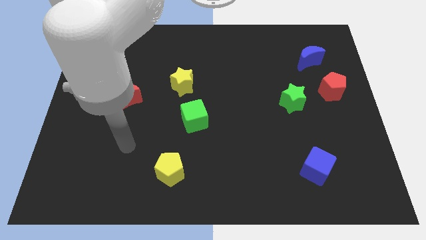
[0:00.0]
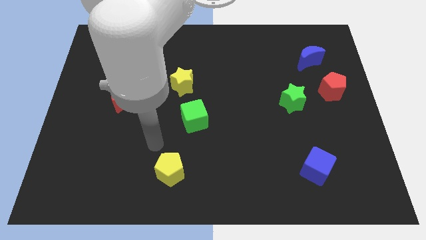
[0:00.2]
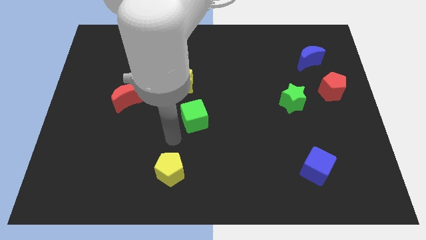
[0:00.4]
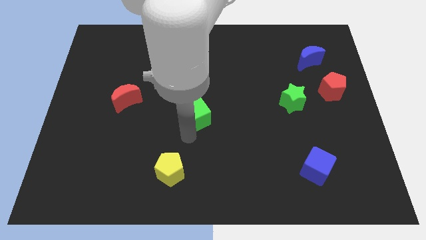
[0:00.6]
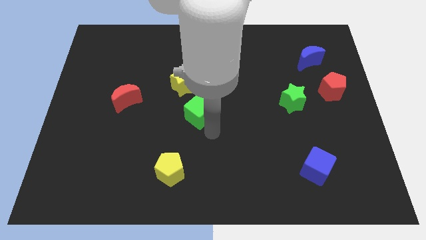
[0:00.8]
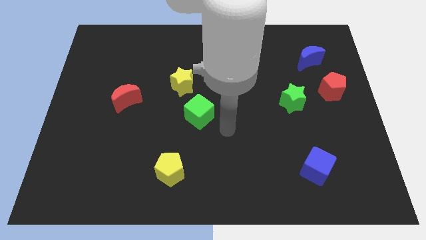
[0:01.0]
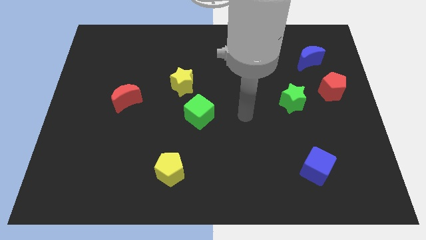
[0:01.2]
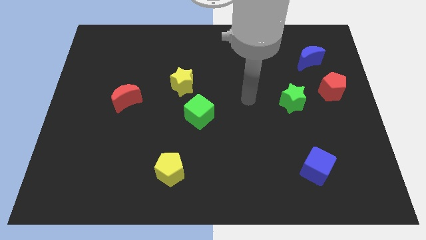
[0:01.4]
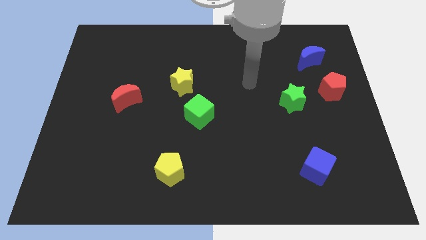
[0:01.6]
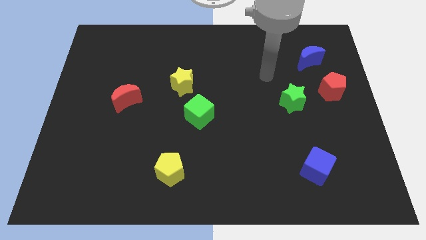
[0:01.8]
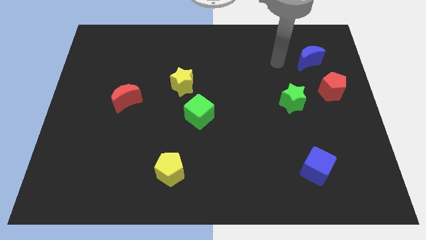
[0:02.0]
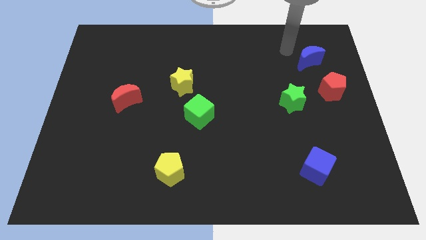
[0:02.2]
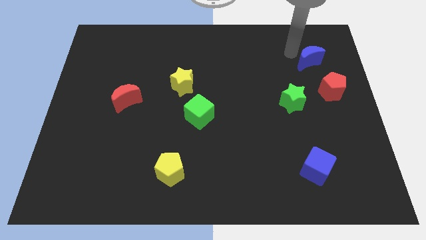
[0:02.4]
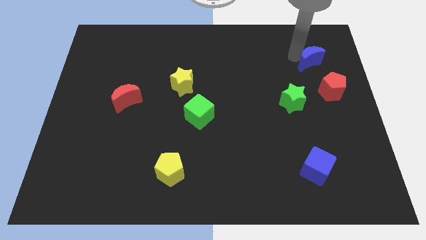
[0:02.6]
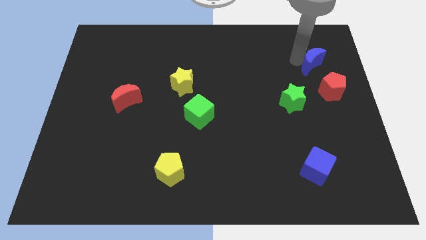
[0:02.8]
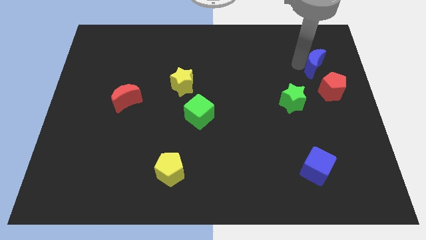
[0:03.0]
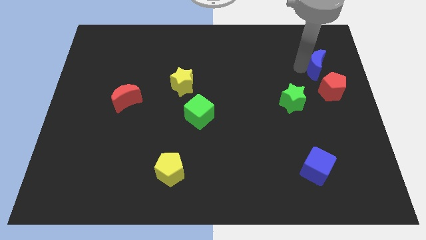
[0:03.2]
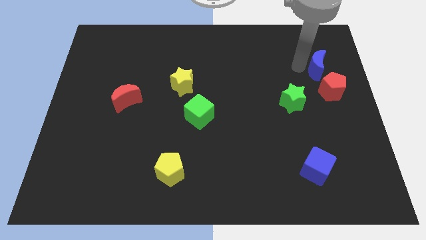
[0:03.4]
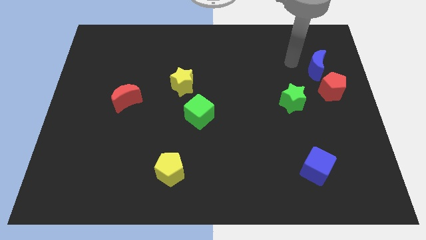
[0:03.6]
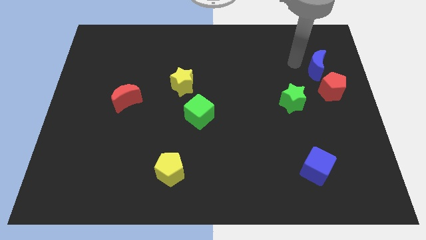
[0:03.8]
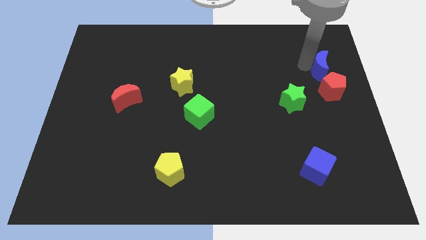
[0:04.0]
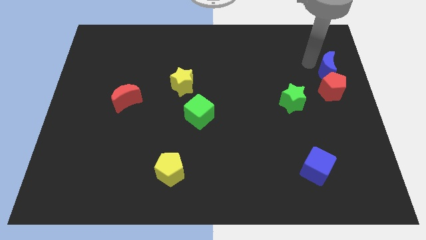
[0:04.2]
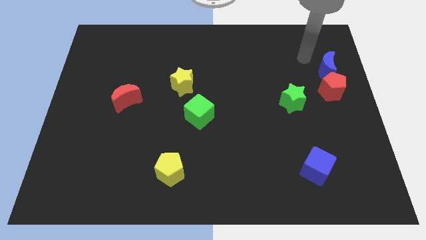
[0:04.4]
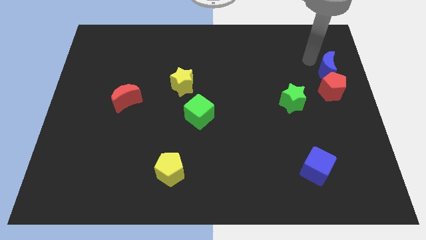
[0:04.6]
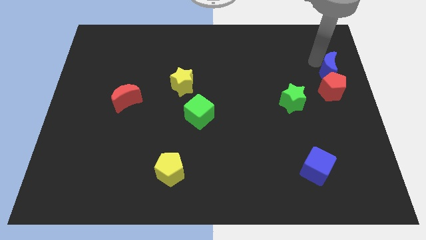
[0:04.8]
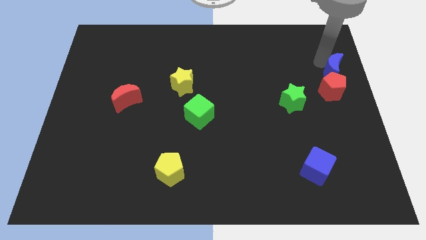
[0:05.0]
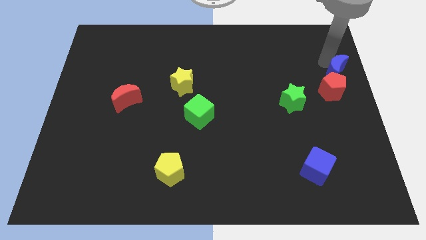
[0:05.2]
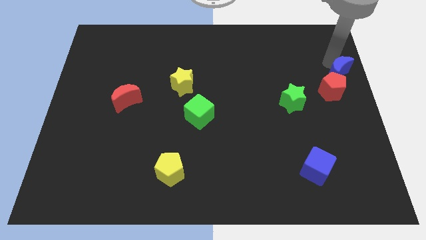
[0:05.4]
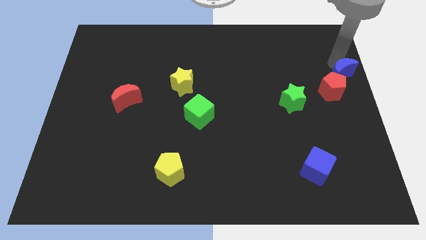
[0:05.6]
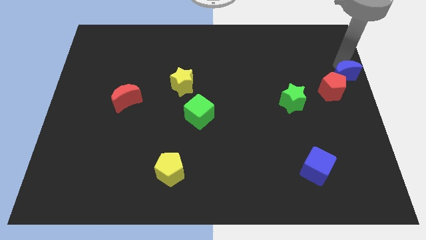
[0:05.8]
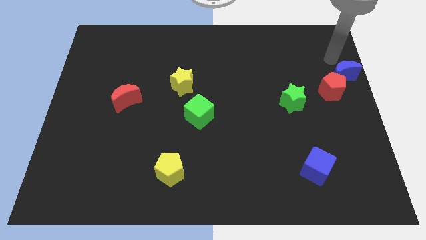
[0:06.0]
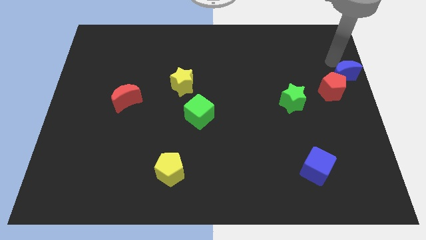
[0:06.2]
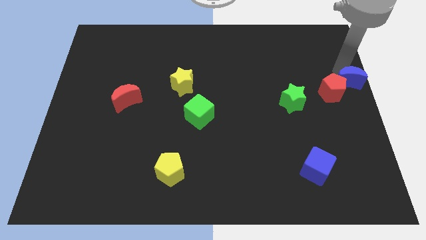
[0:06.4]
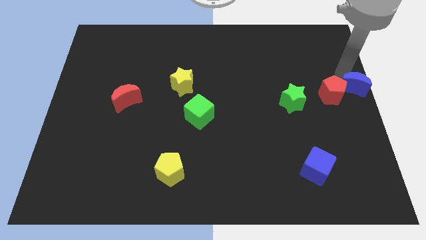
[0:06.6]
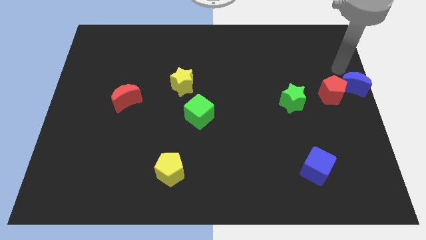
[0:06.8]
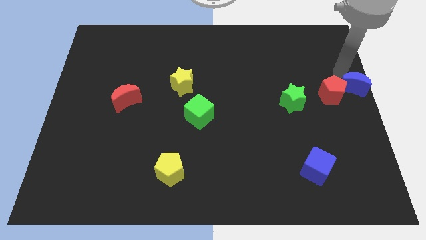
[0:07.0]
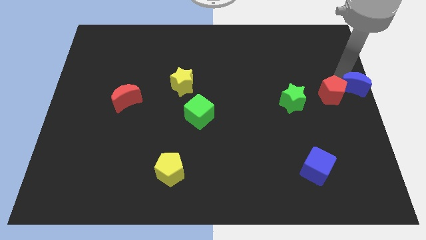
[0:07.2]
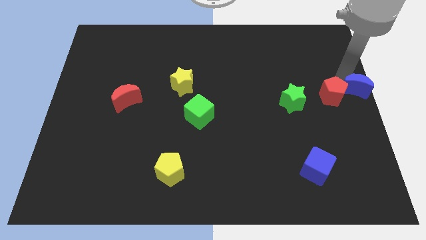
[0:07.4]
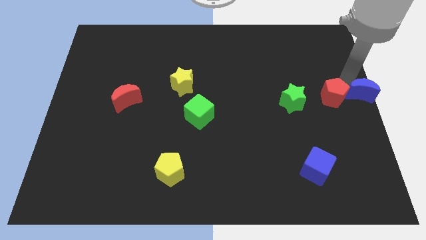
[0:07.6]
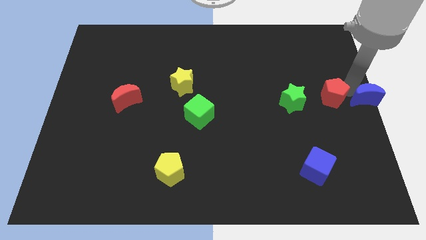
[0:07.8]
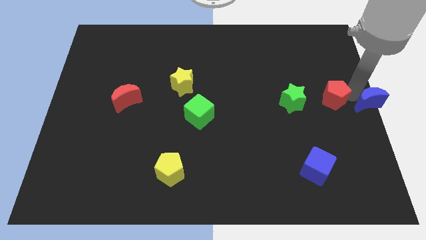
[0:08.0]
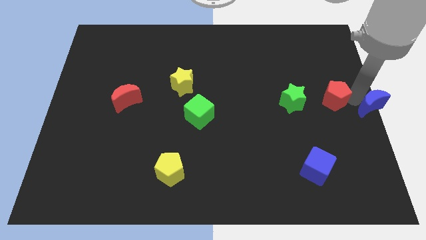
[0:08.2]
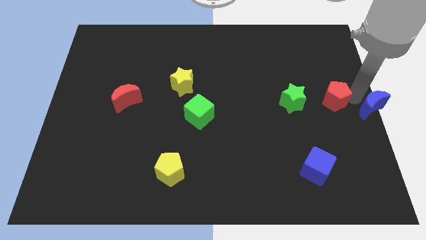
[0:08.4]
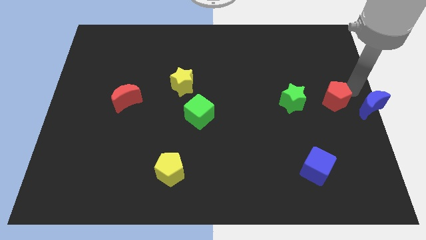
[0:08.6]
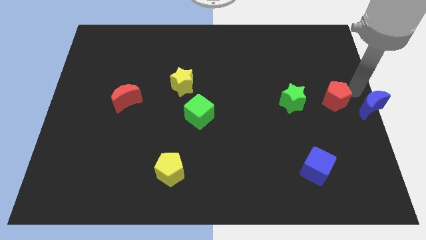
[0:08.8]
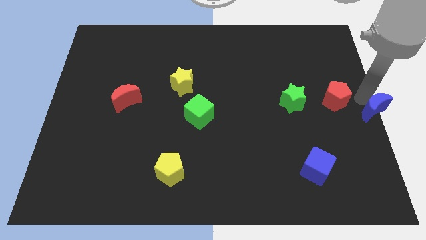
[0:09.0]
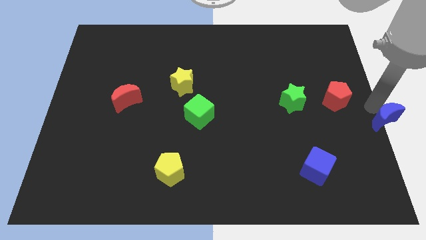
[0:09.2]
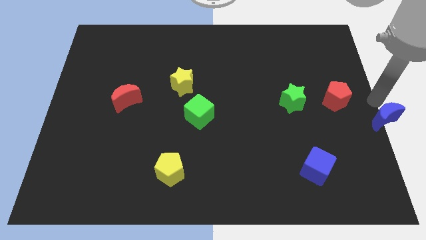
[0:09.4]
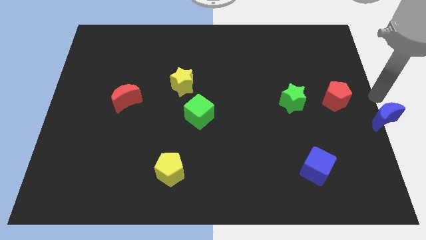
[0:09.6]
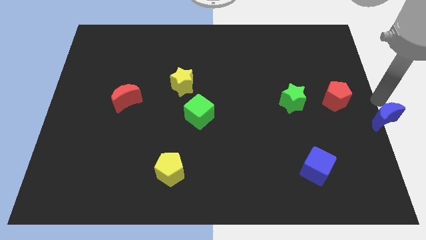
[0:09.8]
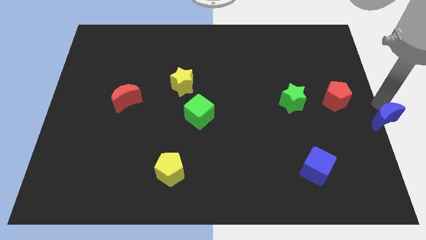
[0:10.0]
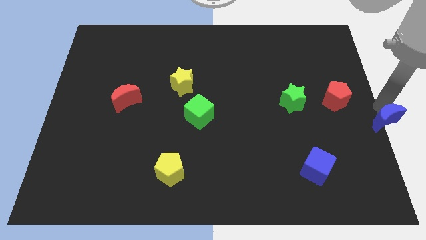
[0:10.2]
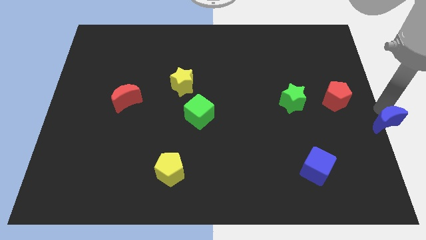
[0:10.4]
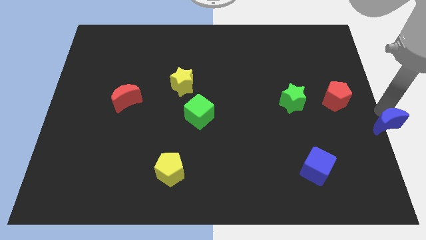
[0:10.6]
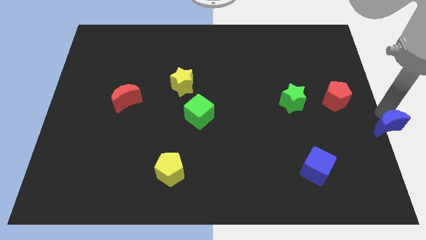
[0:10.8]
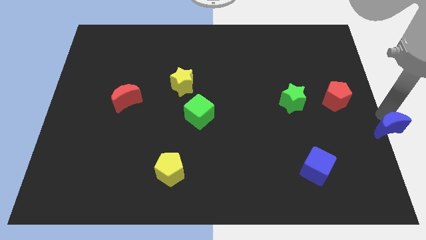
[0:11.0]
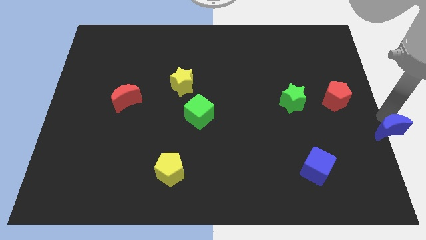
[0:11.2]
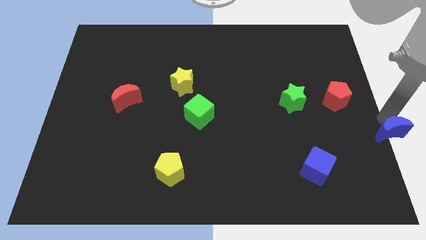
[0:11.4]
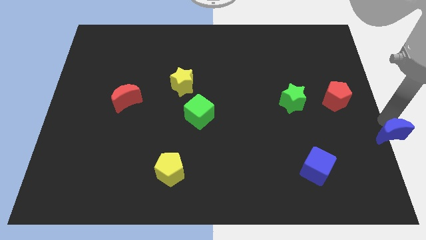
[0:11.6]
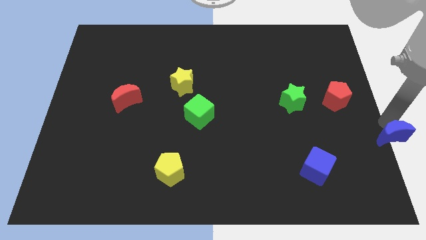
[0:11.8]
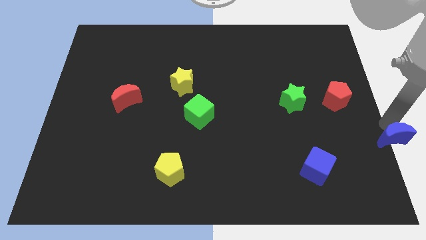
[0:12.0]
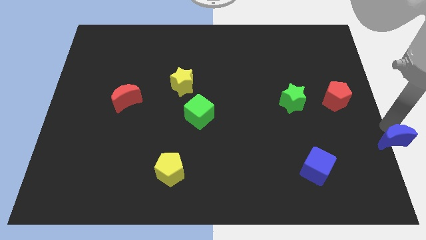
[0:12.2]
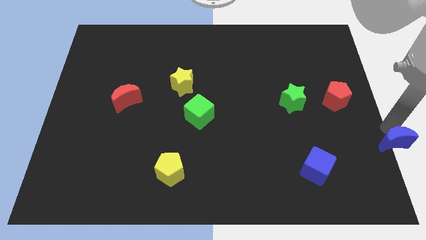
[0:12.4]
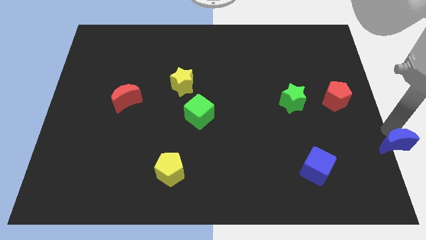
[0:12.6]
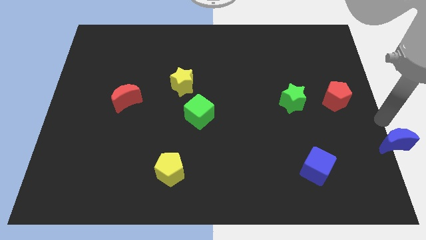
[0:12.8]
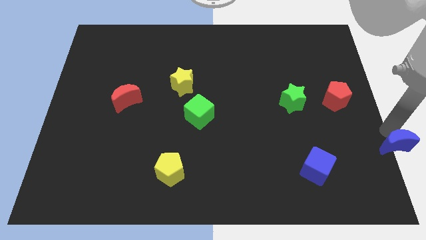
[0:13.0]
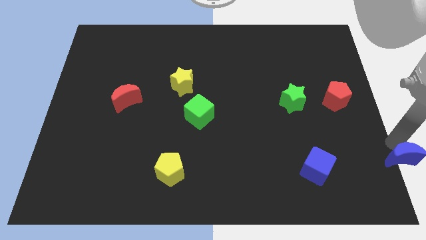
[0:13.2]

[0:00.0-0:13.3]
put the blue moon to the bottom right corner
